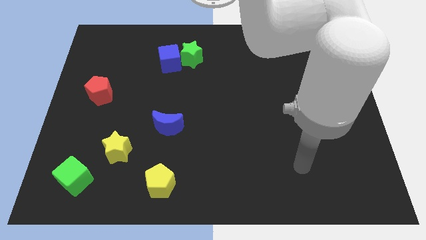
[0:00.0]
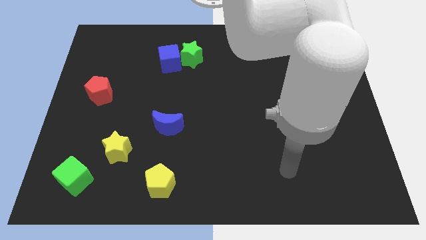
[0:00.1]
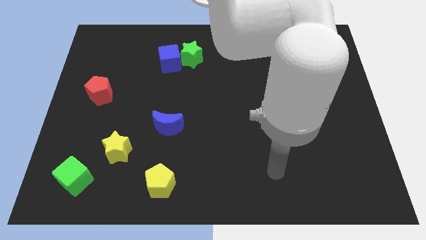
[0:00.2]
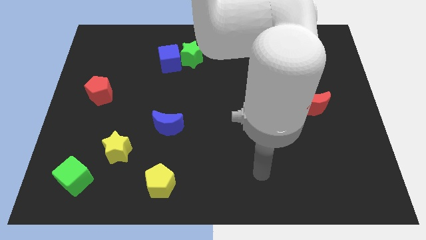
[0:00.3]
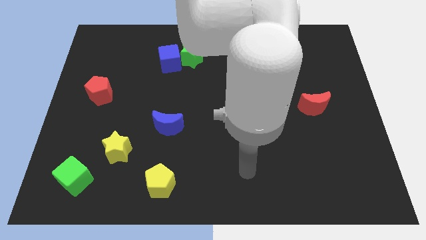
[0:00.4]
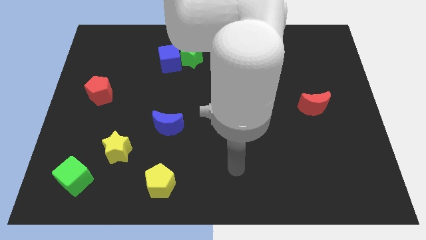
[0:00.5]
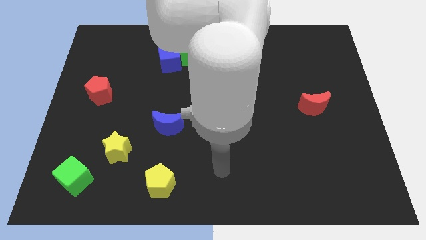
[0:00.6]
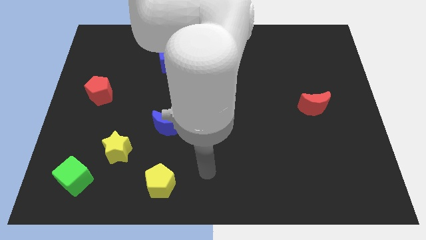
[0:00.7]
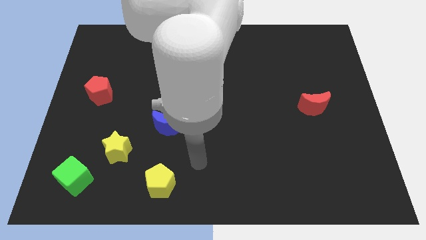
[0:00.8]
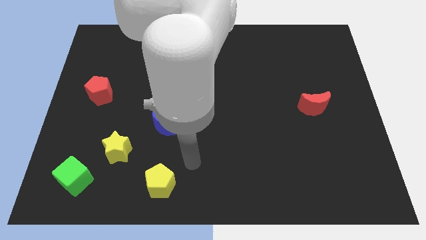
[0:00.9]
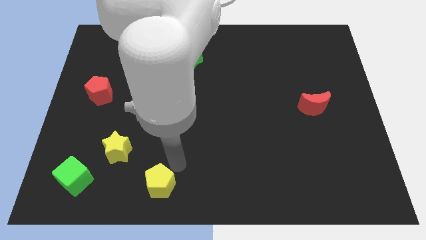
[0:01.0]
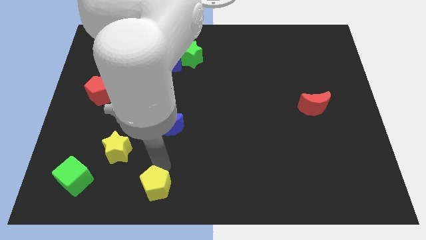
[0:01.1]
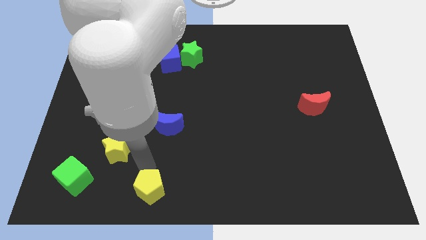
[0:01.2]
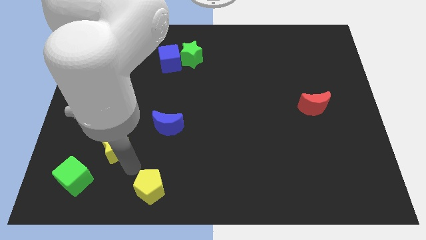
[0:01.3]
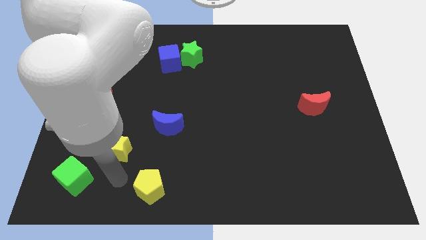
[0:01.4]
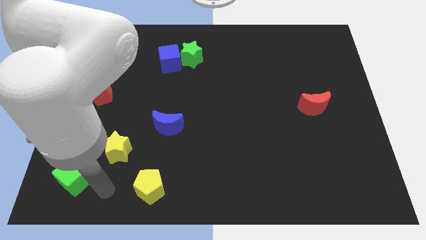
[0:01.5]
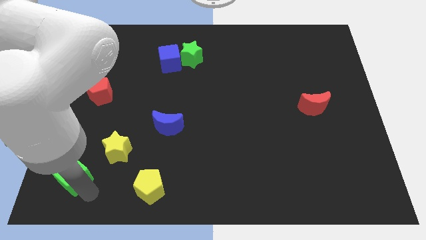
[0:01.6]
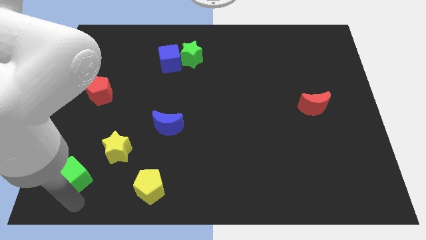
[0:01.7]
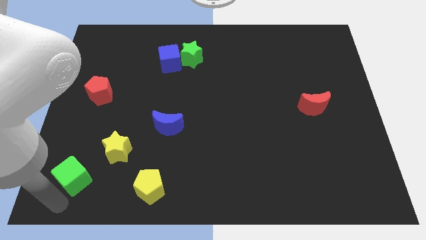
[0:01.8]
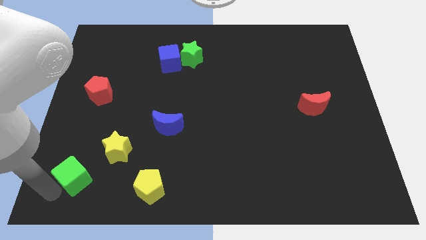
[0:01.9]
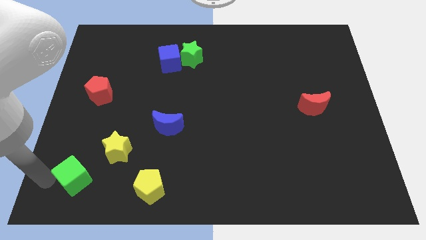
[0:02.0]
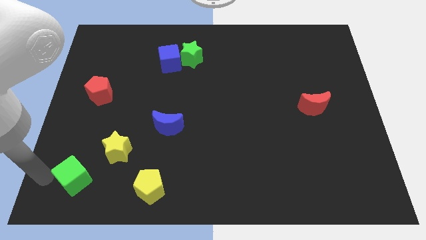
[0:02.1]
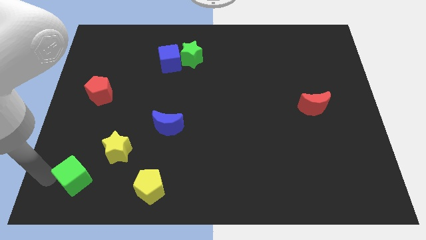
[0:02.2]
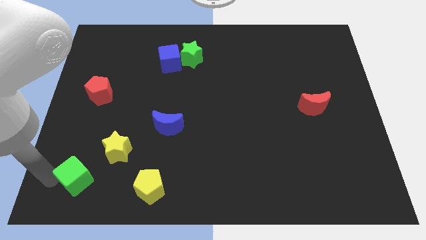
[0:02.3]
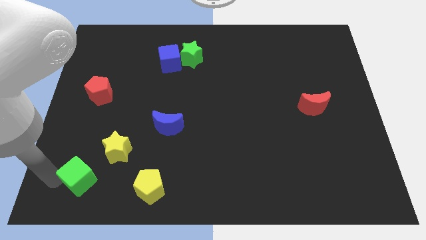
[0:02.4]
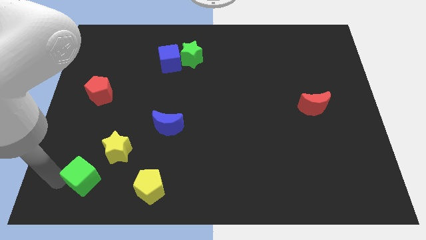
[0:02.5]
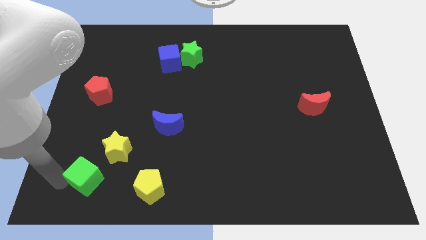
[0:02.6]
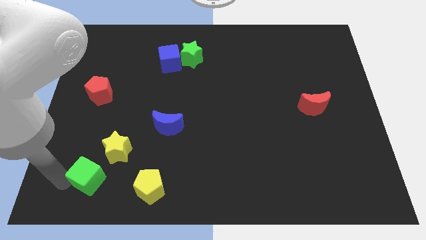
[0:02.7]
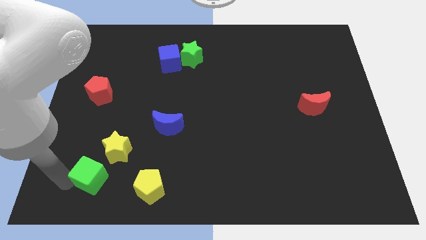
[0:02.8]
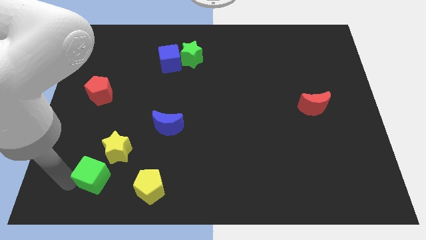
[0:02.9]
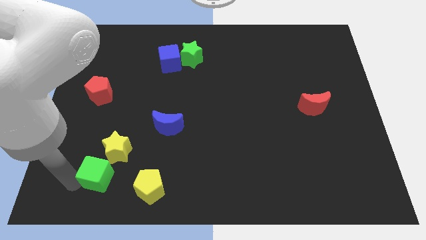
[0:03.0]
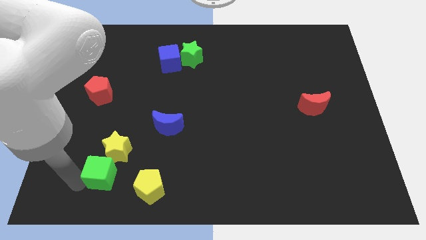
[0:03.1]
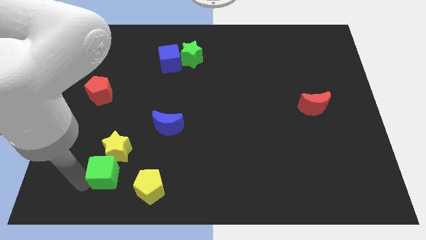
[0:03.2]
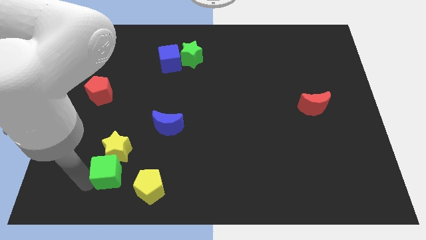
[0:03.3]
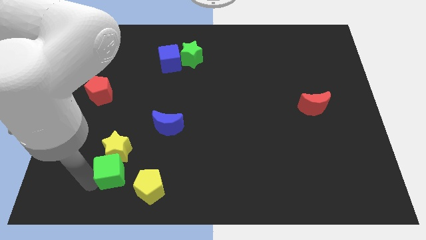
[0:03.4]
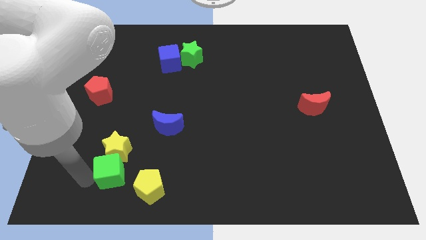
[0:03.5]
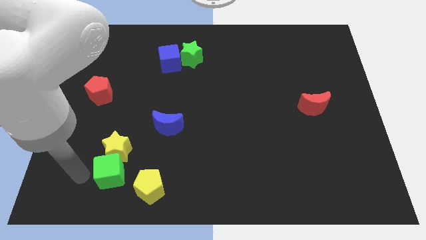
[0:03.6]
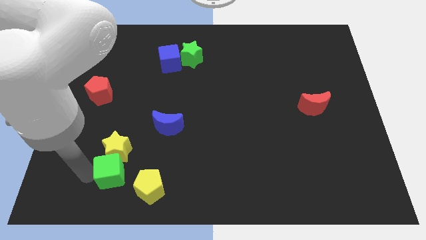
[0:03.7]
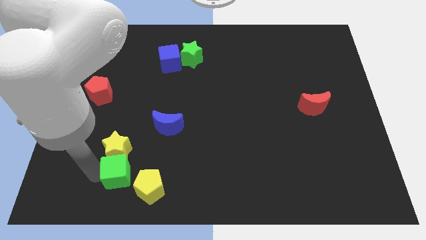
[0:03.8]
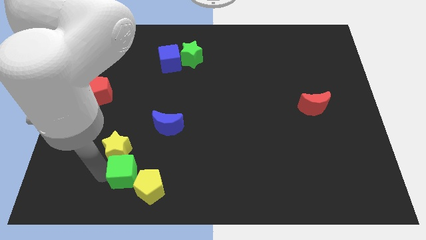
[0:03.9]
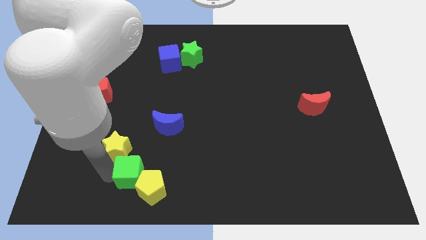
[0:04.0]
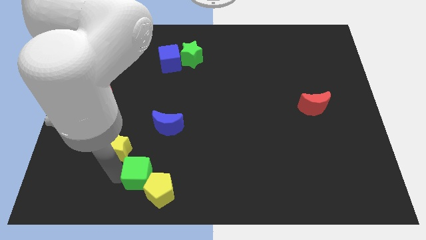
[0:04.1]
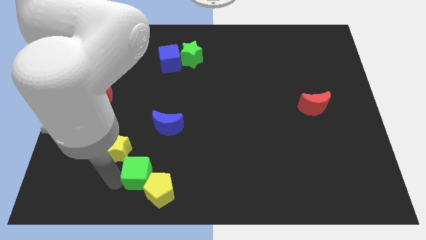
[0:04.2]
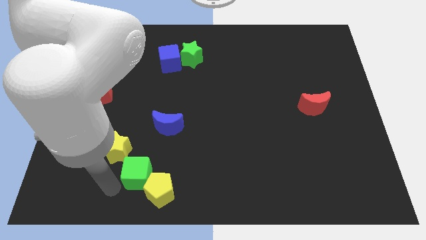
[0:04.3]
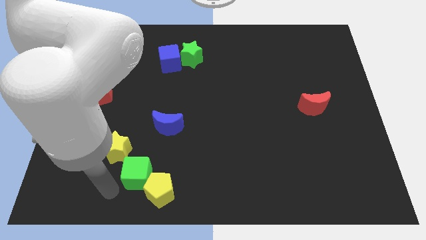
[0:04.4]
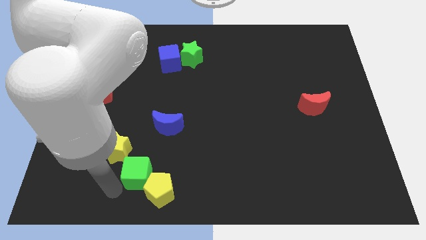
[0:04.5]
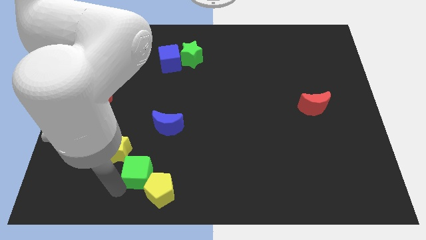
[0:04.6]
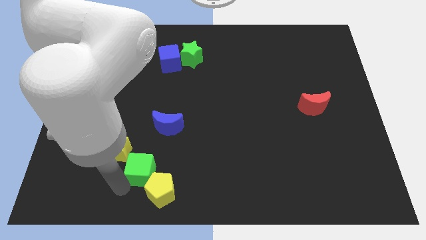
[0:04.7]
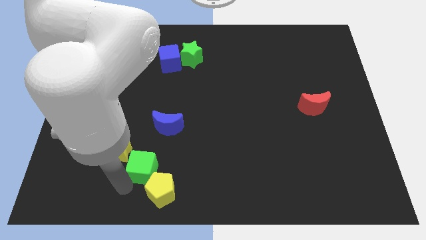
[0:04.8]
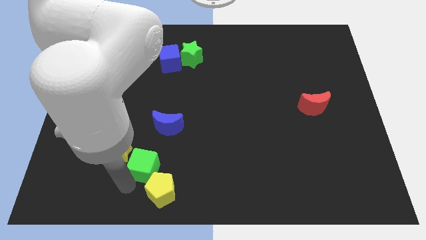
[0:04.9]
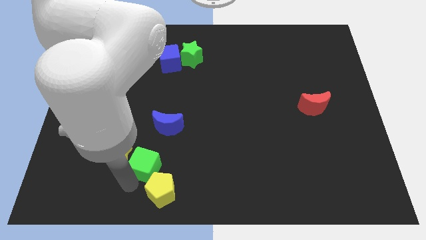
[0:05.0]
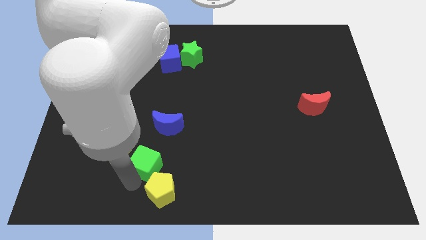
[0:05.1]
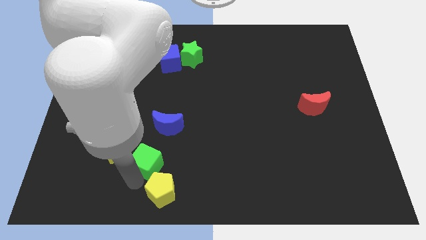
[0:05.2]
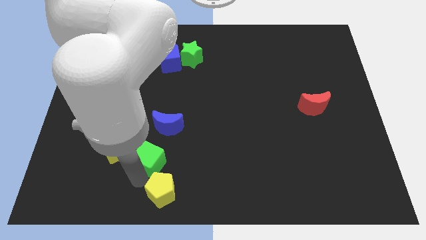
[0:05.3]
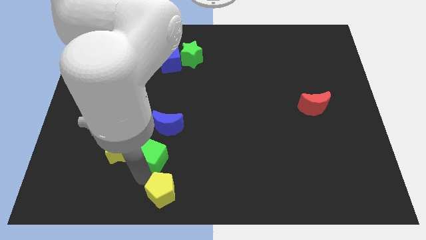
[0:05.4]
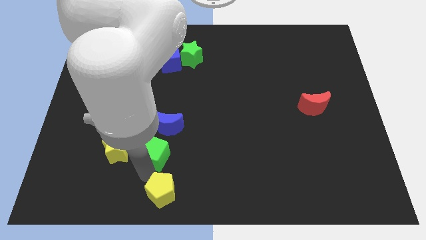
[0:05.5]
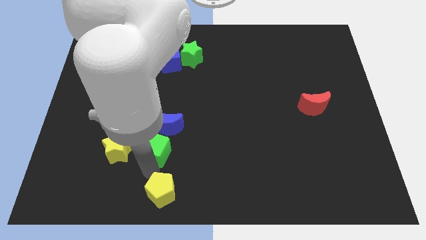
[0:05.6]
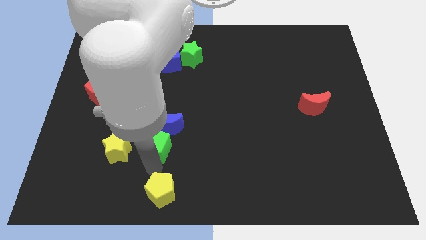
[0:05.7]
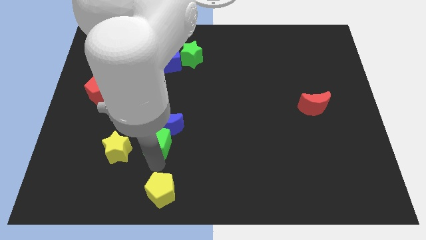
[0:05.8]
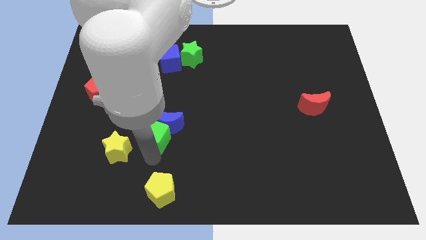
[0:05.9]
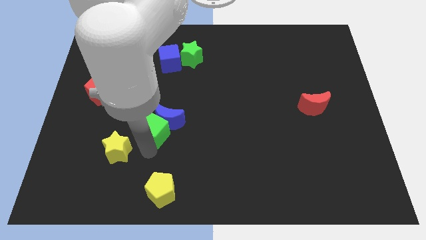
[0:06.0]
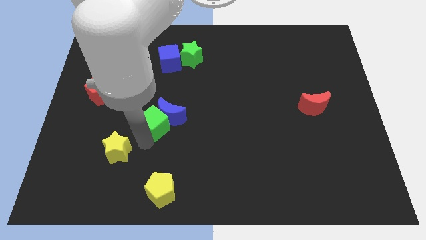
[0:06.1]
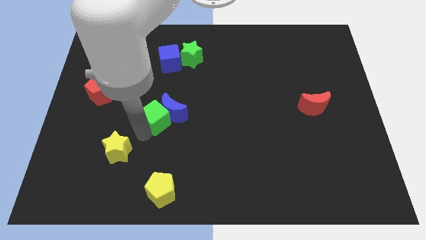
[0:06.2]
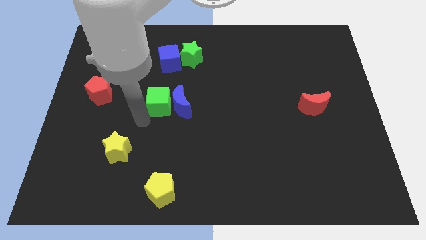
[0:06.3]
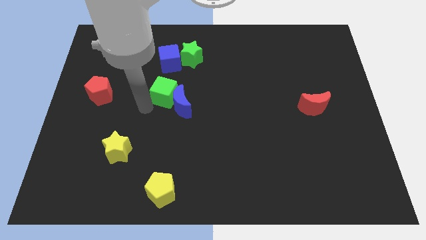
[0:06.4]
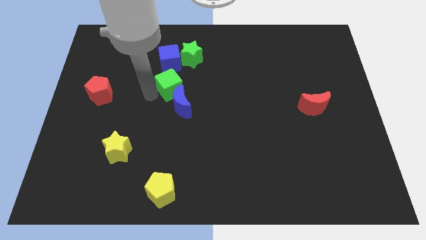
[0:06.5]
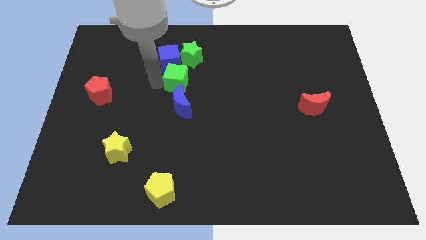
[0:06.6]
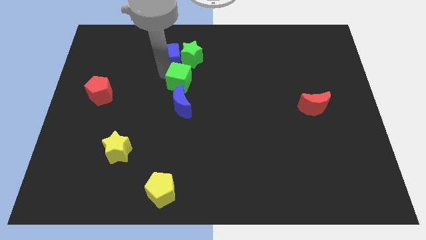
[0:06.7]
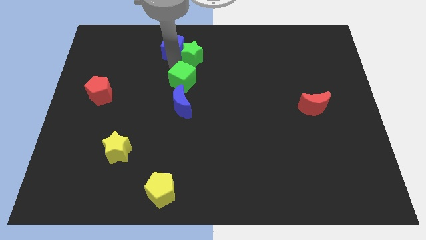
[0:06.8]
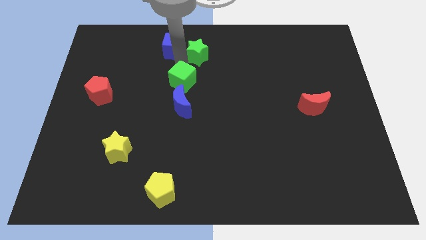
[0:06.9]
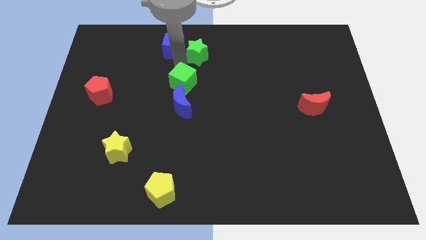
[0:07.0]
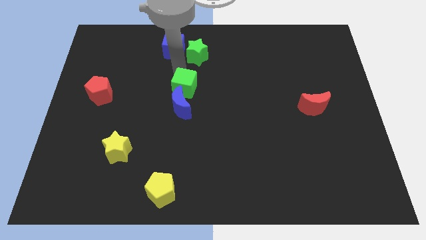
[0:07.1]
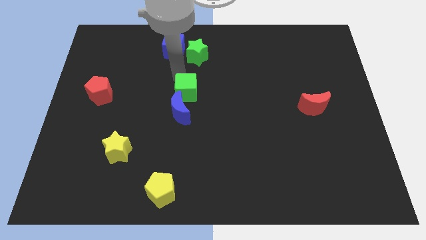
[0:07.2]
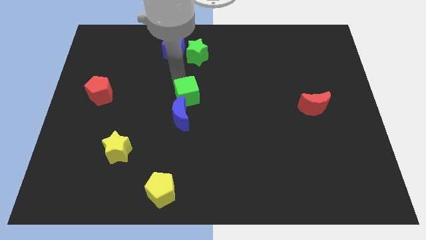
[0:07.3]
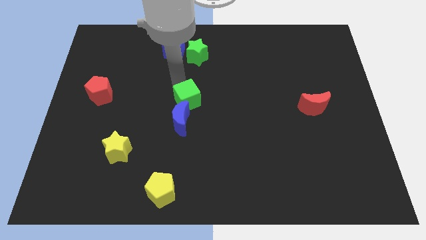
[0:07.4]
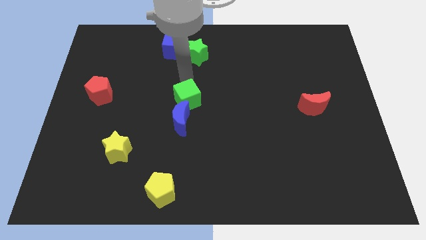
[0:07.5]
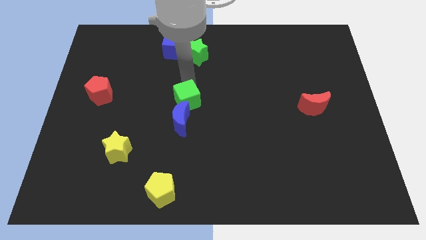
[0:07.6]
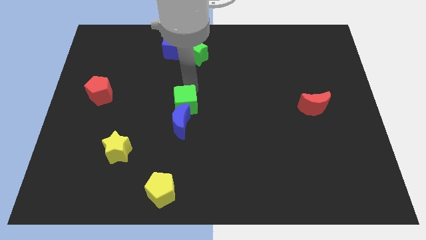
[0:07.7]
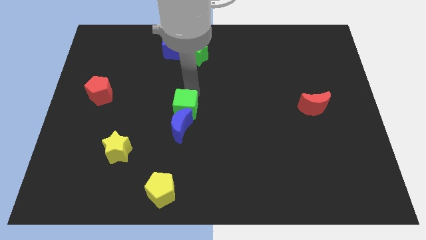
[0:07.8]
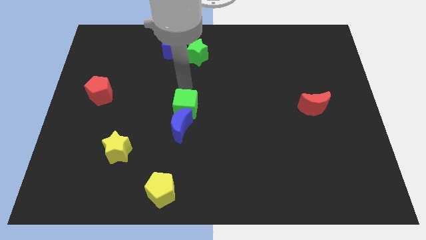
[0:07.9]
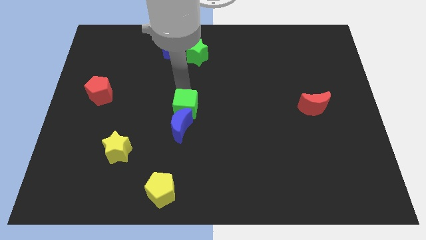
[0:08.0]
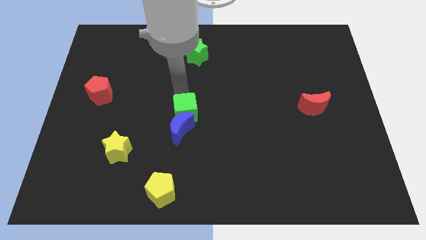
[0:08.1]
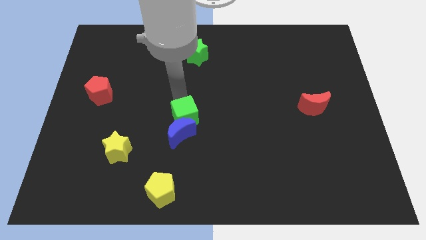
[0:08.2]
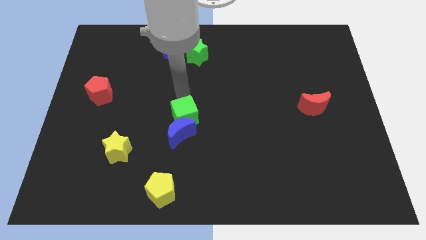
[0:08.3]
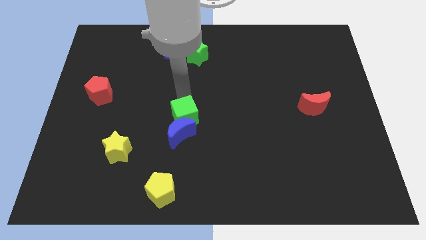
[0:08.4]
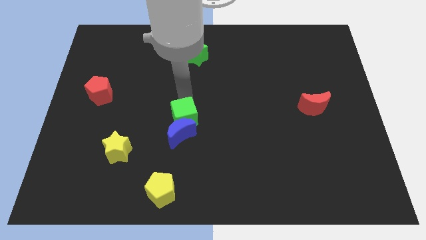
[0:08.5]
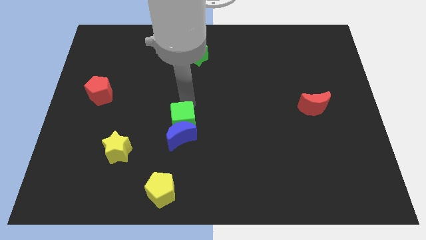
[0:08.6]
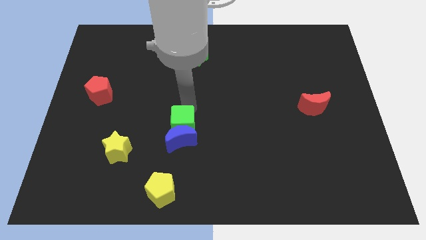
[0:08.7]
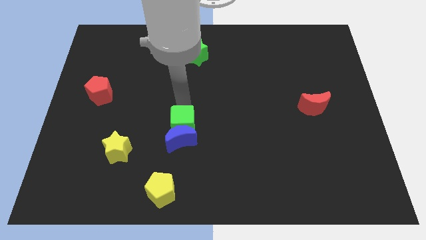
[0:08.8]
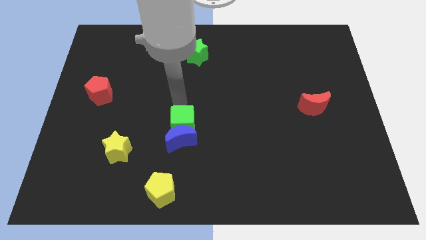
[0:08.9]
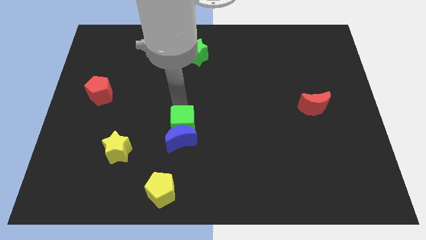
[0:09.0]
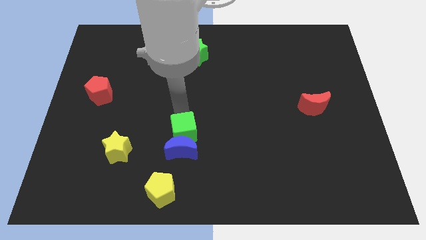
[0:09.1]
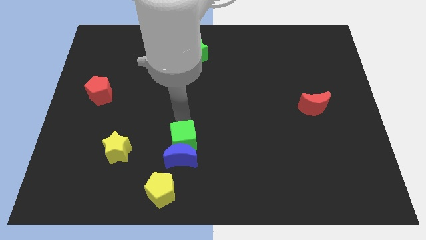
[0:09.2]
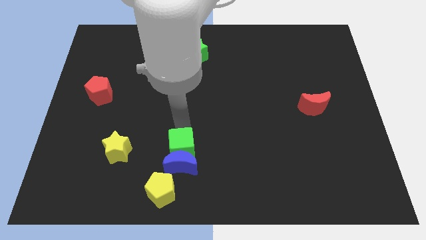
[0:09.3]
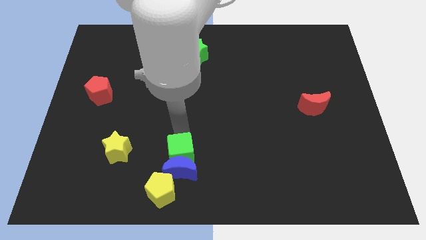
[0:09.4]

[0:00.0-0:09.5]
push the green cube to the right
